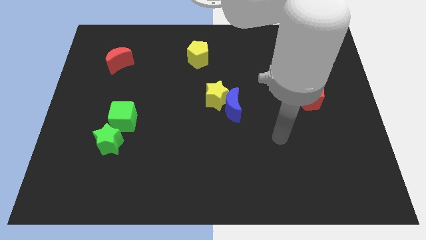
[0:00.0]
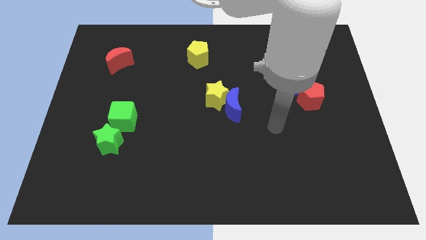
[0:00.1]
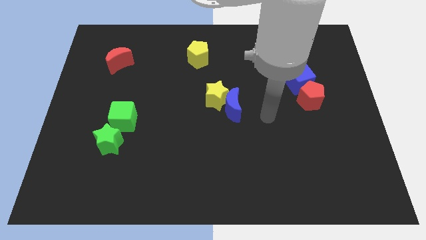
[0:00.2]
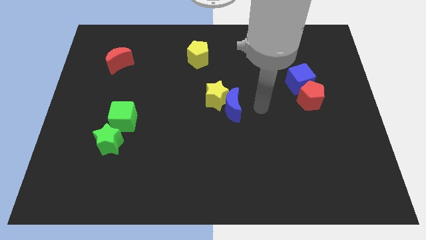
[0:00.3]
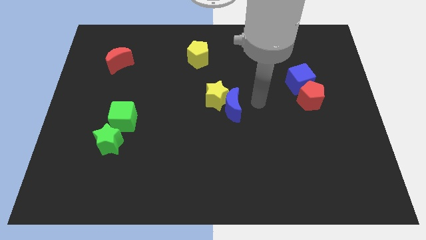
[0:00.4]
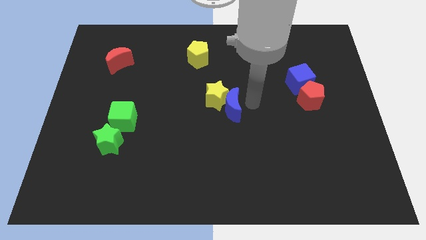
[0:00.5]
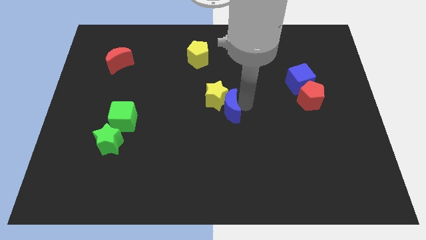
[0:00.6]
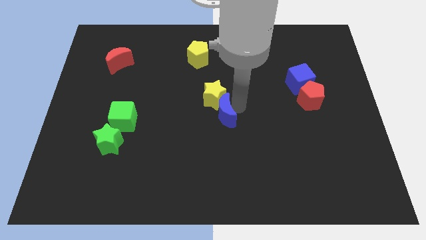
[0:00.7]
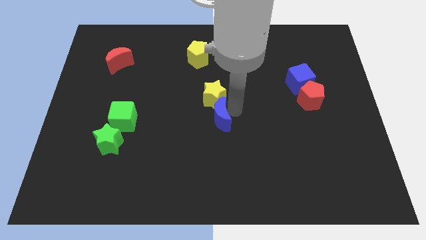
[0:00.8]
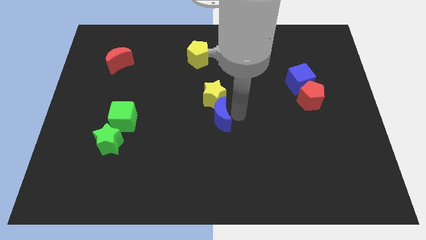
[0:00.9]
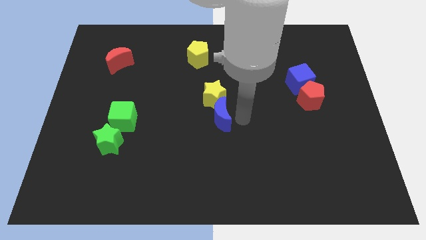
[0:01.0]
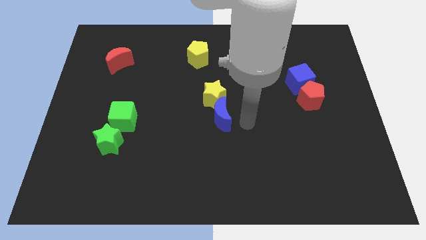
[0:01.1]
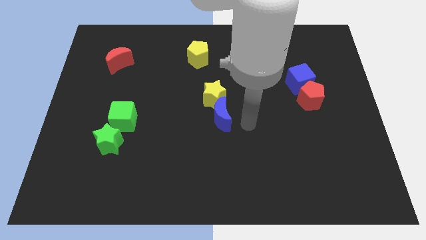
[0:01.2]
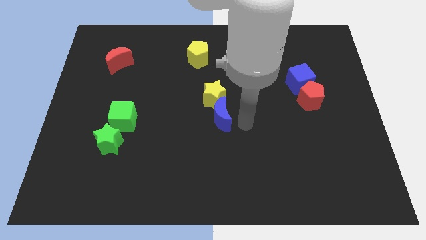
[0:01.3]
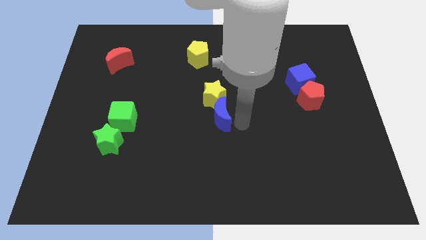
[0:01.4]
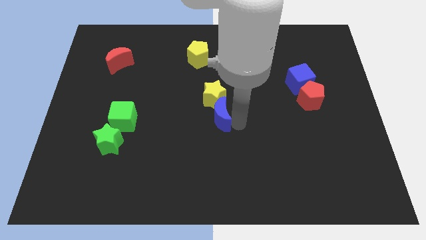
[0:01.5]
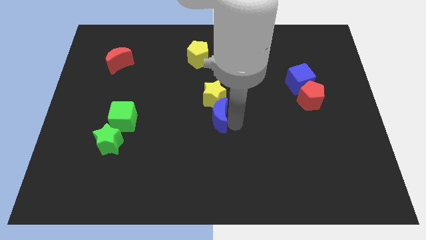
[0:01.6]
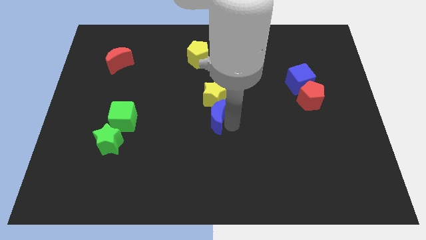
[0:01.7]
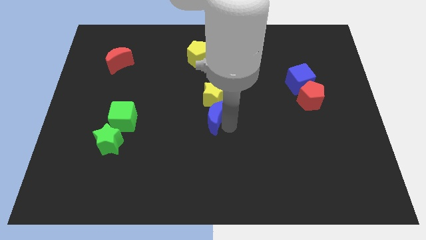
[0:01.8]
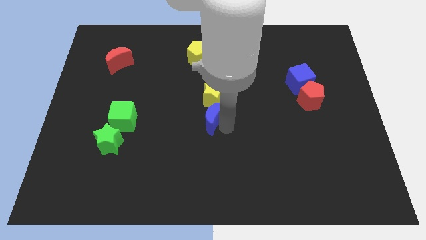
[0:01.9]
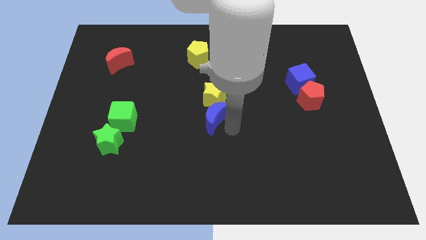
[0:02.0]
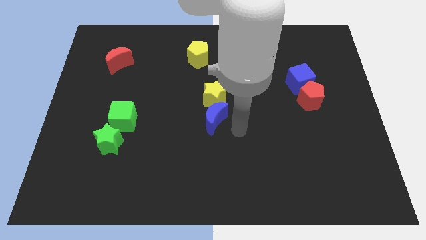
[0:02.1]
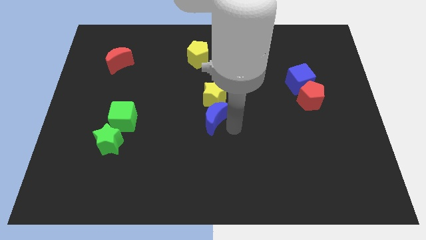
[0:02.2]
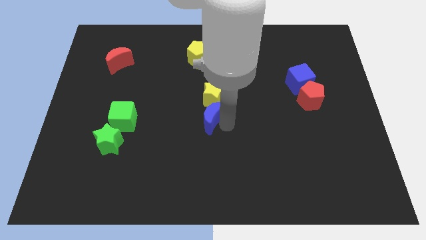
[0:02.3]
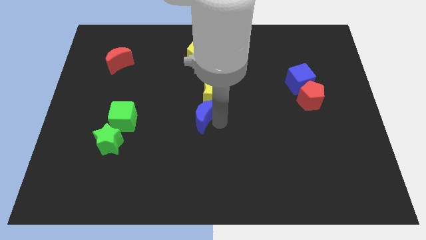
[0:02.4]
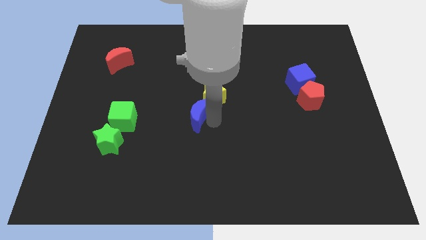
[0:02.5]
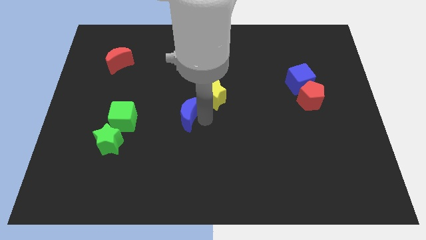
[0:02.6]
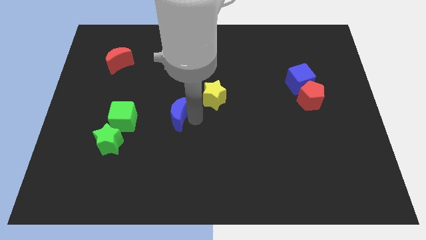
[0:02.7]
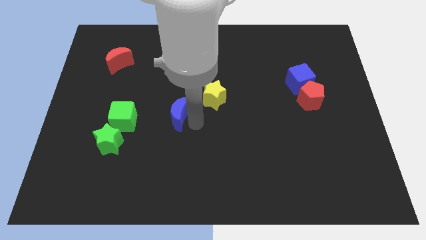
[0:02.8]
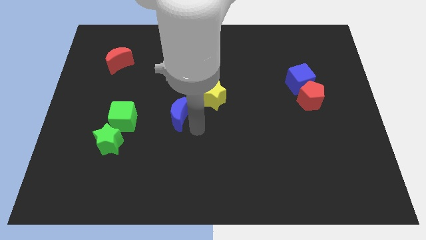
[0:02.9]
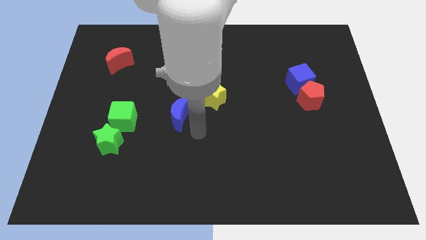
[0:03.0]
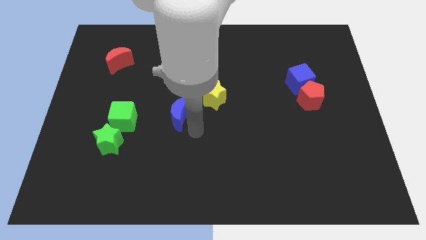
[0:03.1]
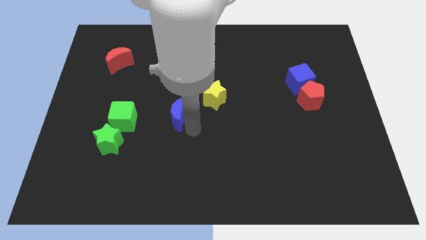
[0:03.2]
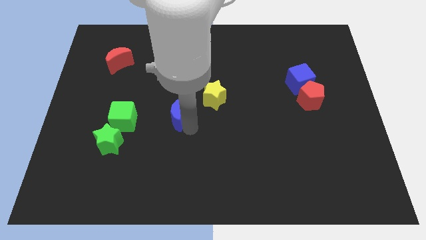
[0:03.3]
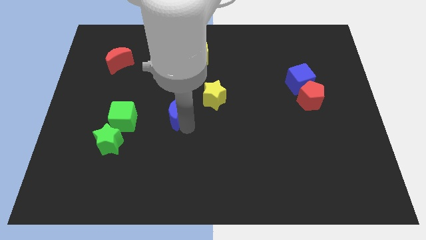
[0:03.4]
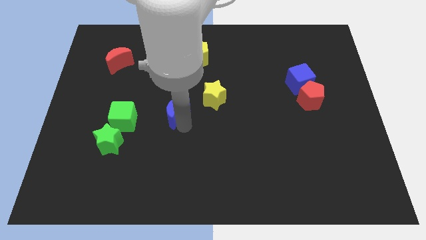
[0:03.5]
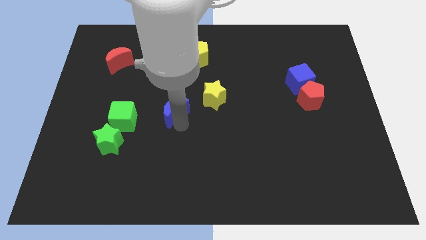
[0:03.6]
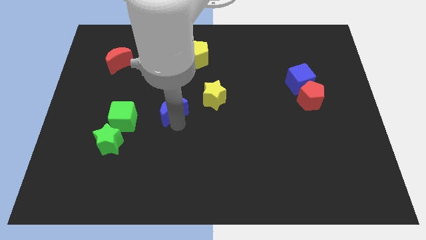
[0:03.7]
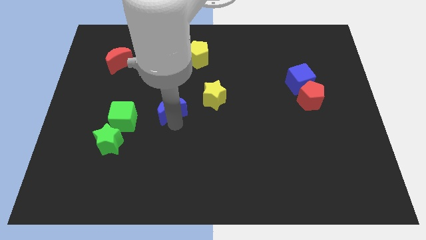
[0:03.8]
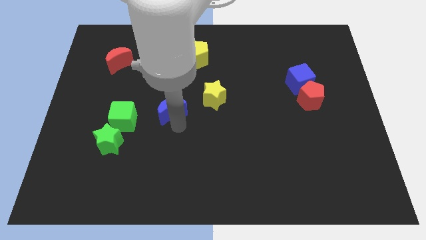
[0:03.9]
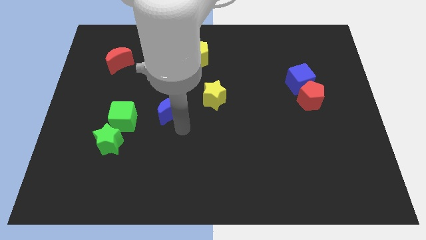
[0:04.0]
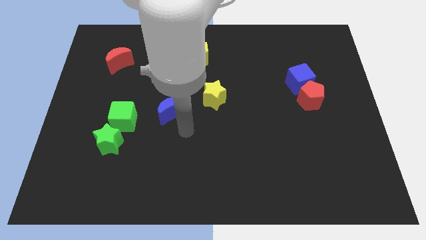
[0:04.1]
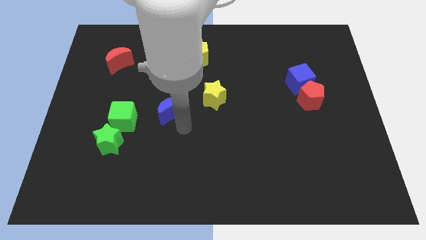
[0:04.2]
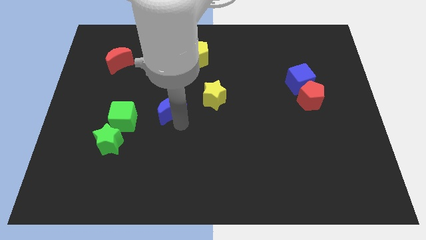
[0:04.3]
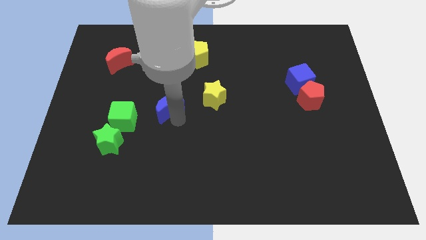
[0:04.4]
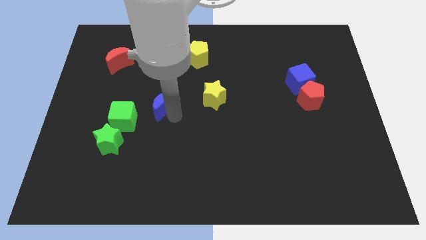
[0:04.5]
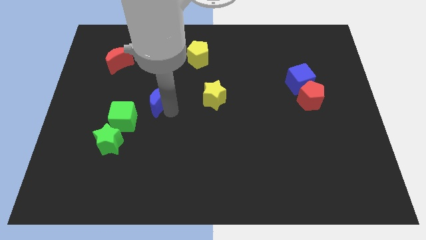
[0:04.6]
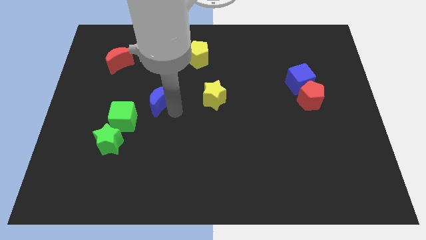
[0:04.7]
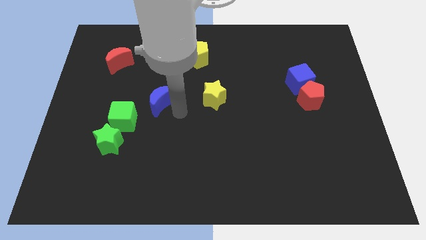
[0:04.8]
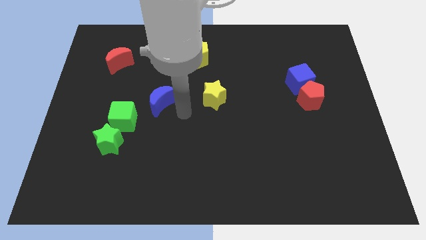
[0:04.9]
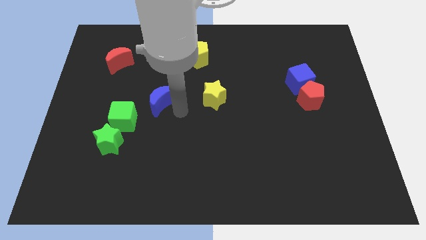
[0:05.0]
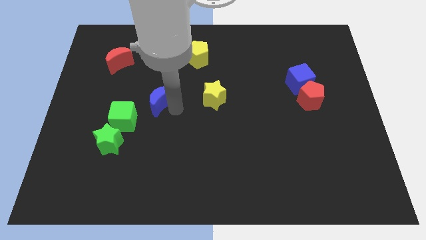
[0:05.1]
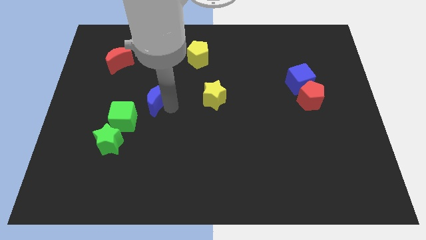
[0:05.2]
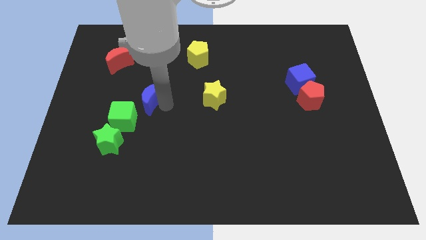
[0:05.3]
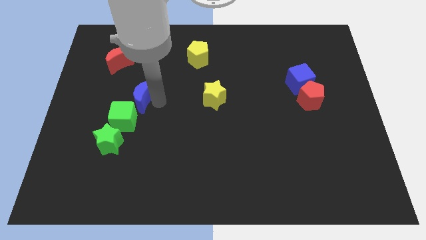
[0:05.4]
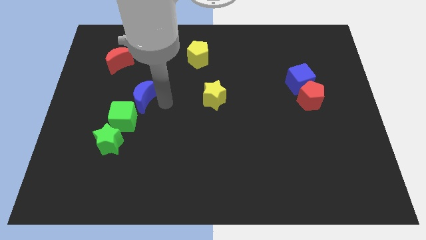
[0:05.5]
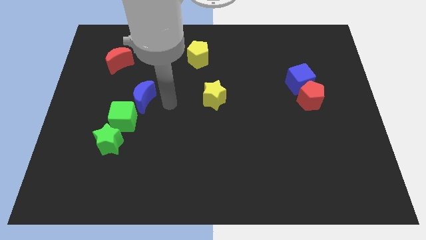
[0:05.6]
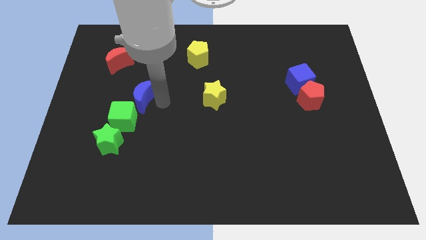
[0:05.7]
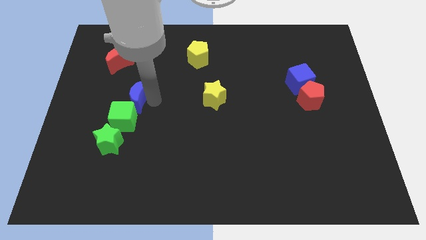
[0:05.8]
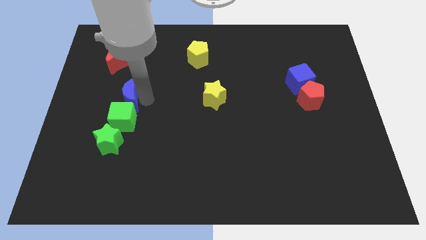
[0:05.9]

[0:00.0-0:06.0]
move the blue moon to the bottom side of the red moon
